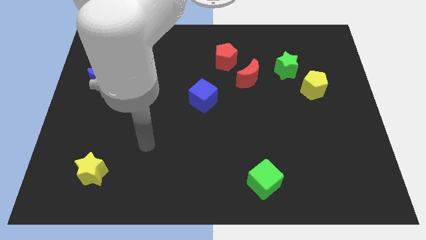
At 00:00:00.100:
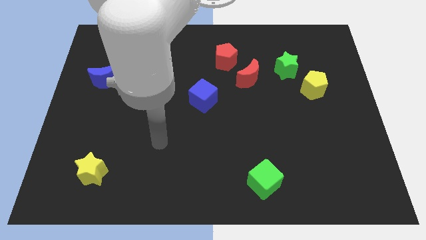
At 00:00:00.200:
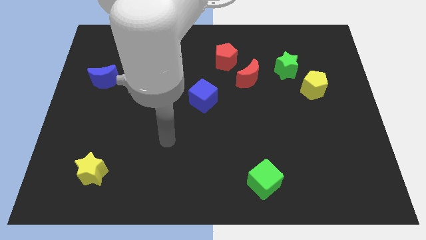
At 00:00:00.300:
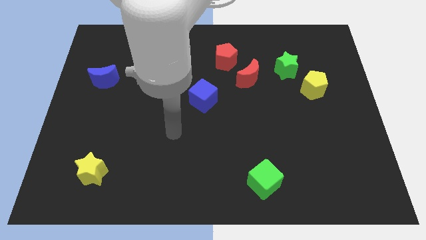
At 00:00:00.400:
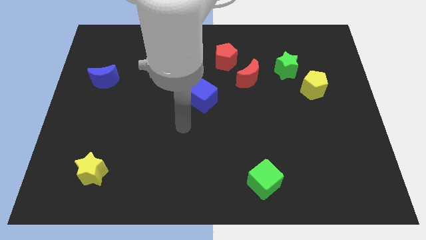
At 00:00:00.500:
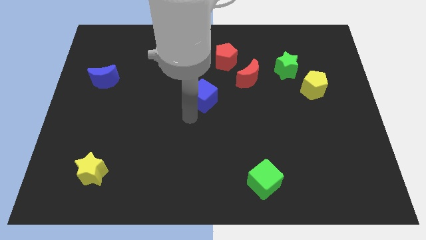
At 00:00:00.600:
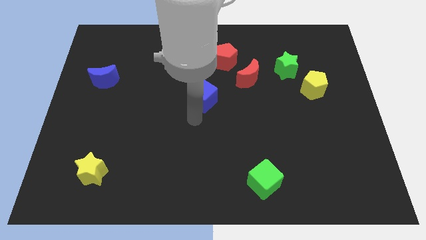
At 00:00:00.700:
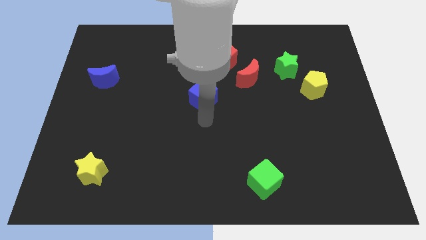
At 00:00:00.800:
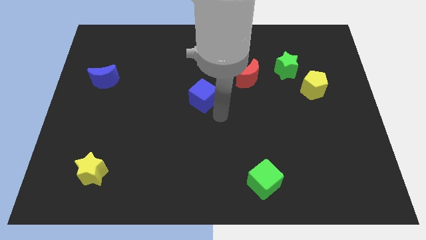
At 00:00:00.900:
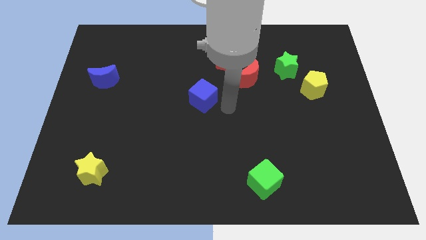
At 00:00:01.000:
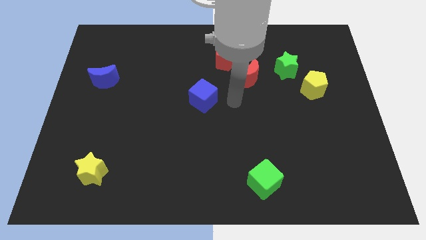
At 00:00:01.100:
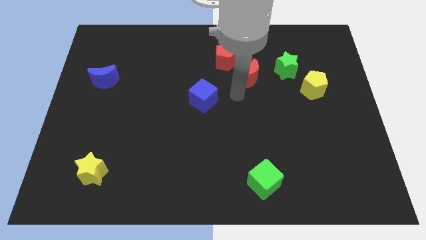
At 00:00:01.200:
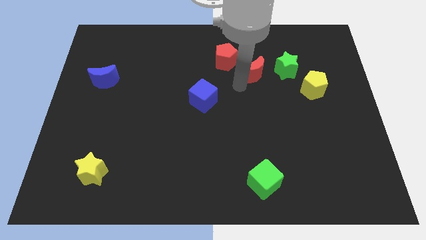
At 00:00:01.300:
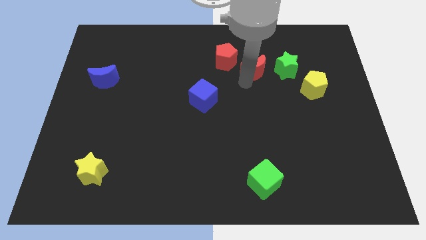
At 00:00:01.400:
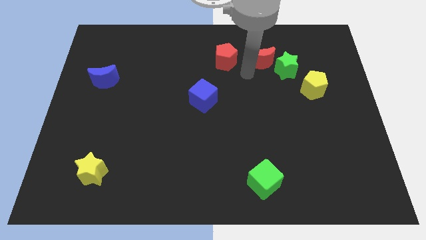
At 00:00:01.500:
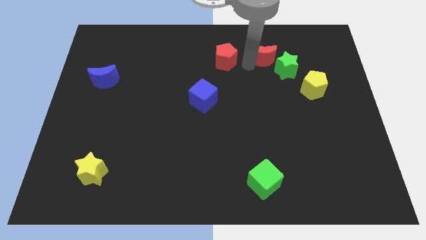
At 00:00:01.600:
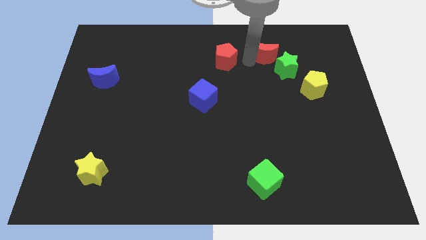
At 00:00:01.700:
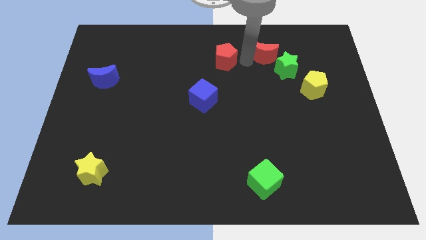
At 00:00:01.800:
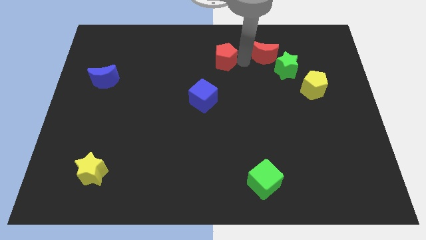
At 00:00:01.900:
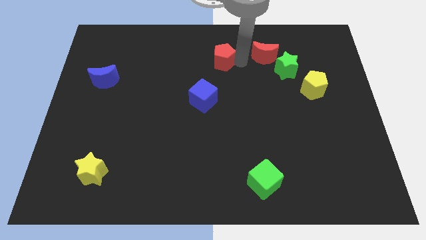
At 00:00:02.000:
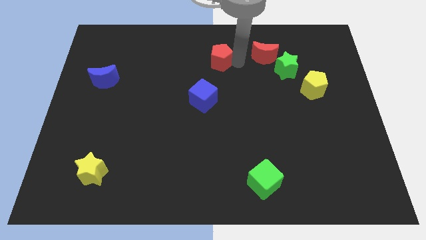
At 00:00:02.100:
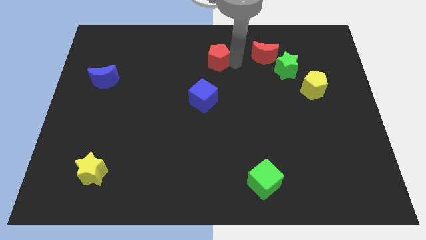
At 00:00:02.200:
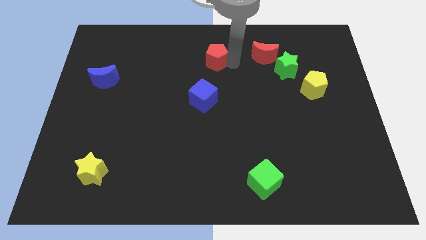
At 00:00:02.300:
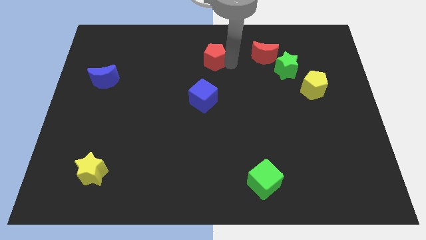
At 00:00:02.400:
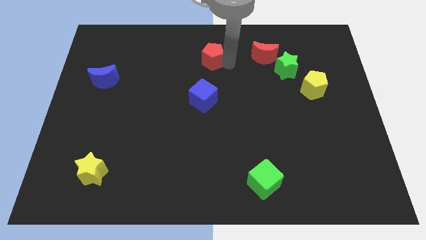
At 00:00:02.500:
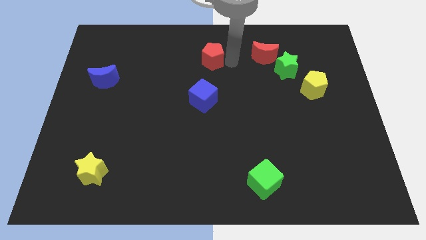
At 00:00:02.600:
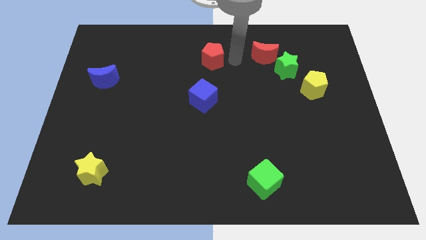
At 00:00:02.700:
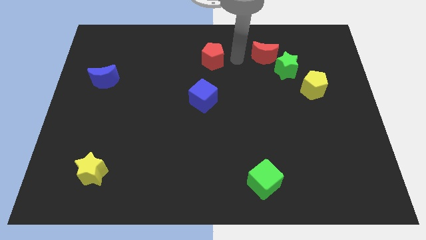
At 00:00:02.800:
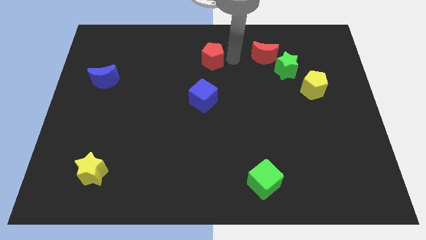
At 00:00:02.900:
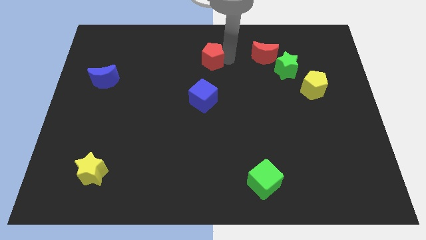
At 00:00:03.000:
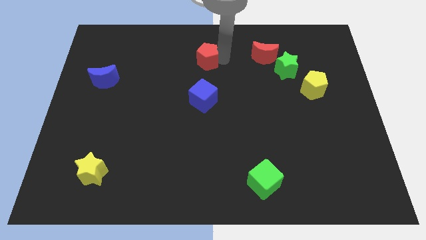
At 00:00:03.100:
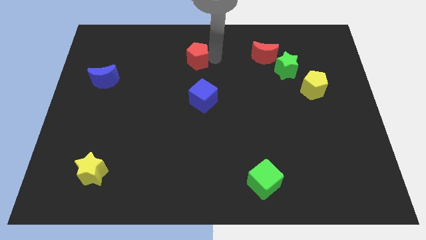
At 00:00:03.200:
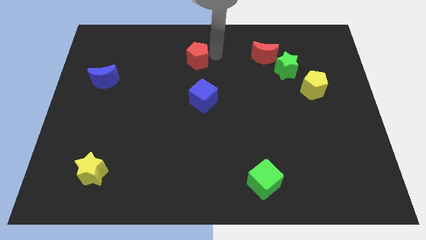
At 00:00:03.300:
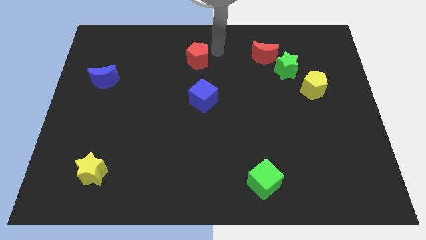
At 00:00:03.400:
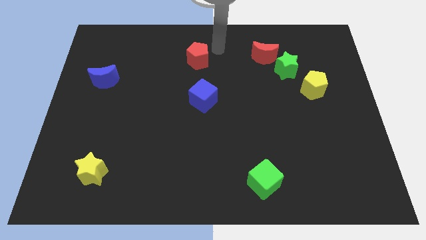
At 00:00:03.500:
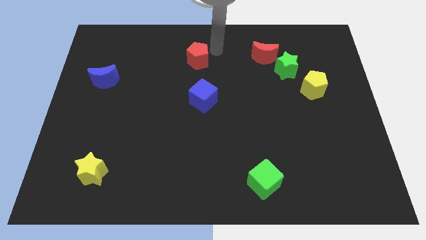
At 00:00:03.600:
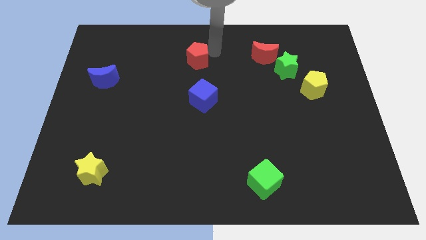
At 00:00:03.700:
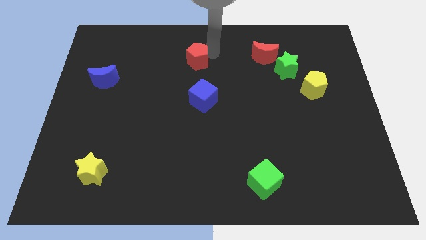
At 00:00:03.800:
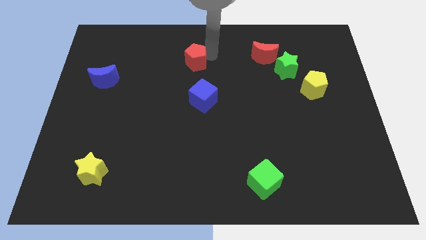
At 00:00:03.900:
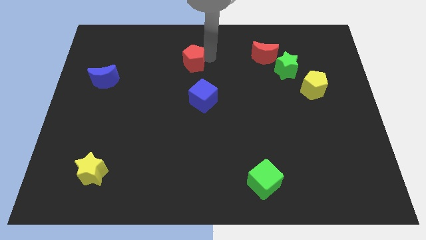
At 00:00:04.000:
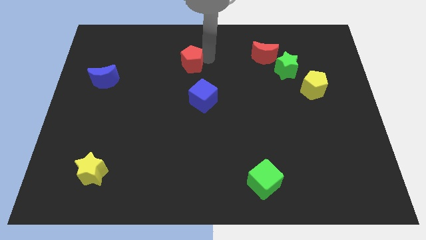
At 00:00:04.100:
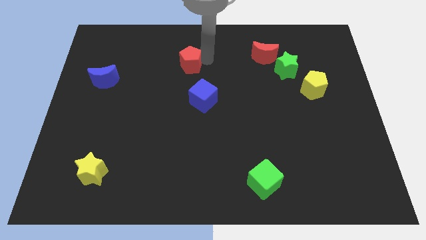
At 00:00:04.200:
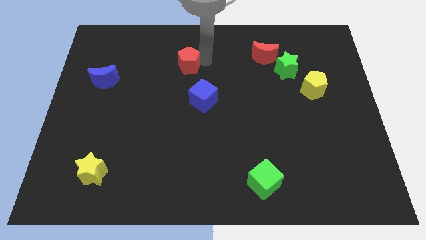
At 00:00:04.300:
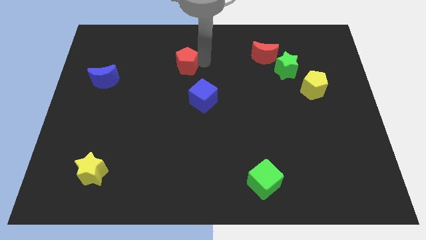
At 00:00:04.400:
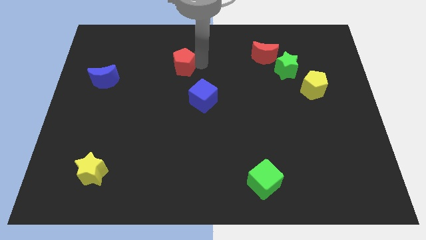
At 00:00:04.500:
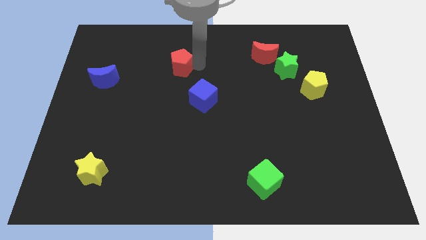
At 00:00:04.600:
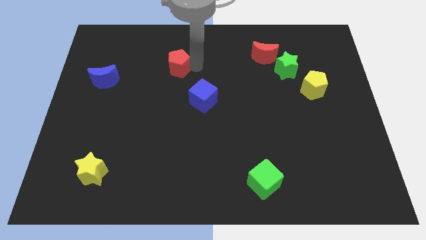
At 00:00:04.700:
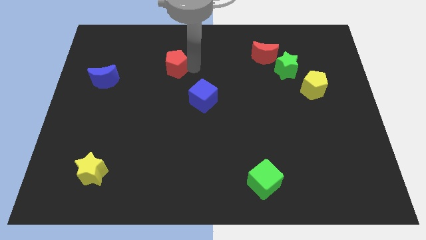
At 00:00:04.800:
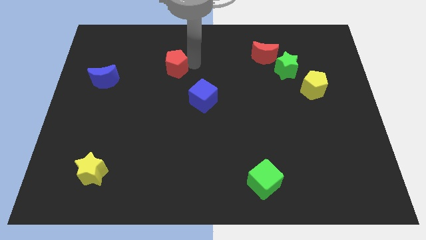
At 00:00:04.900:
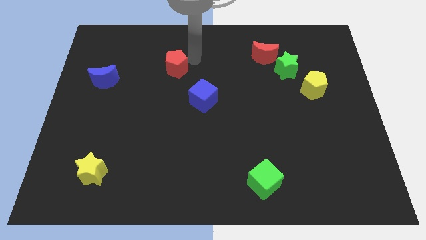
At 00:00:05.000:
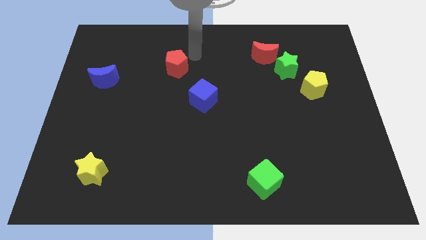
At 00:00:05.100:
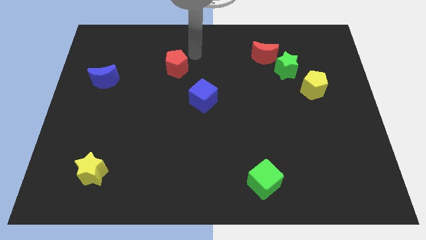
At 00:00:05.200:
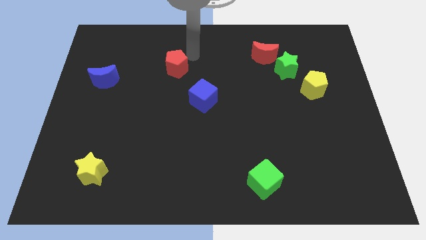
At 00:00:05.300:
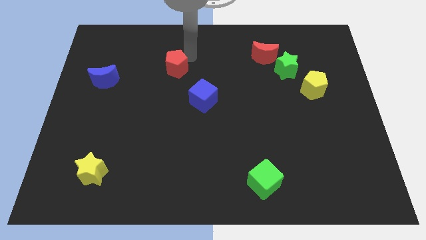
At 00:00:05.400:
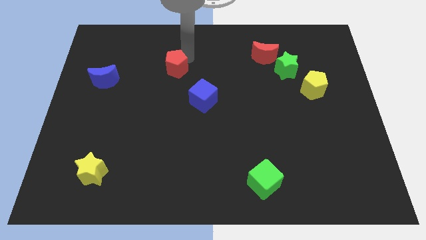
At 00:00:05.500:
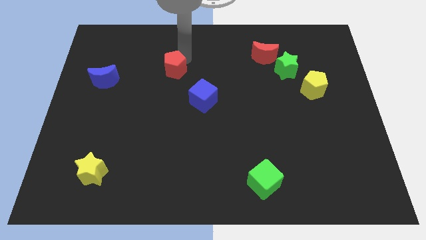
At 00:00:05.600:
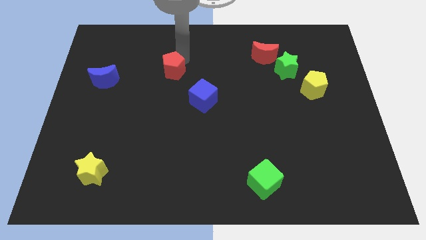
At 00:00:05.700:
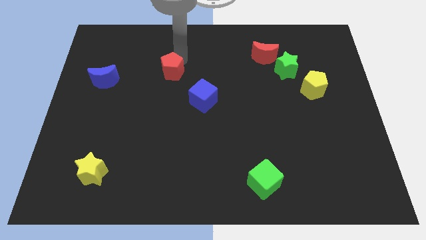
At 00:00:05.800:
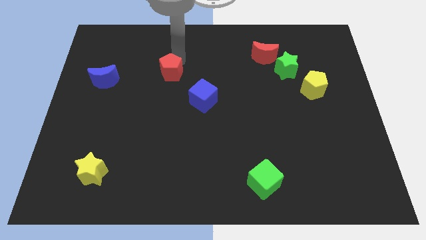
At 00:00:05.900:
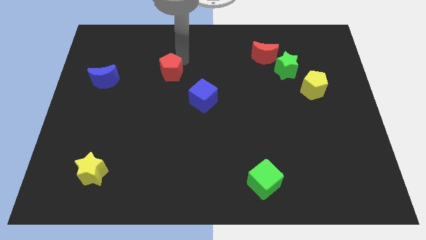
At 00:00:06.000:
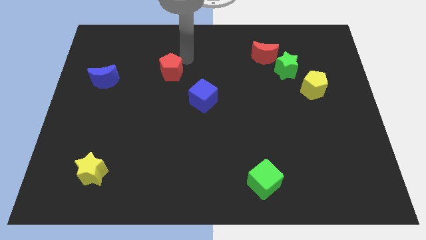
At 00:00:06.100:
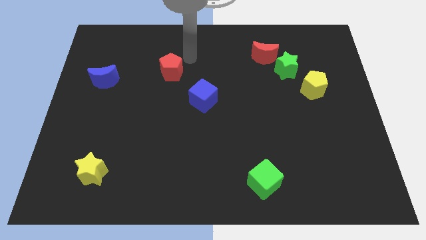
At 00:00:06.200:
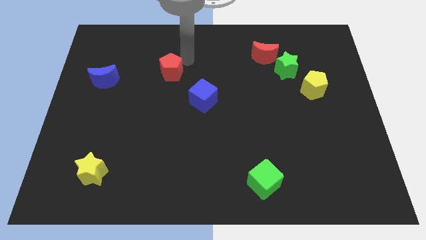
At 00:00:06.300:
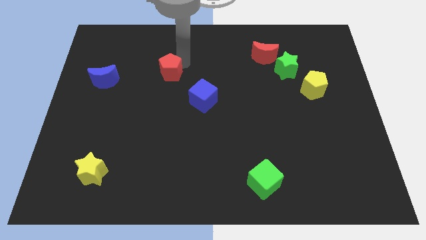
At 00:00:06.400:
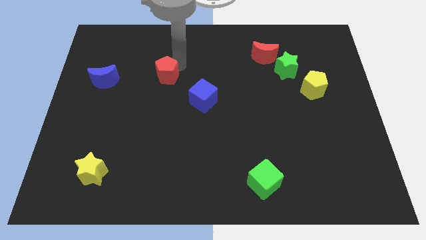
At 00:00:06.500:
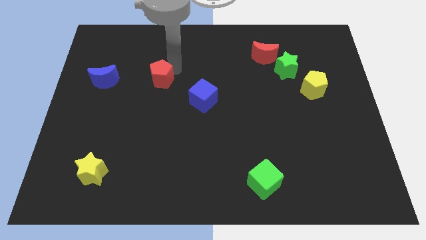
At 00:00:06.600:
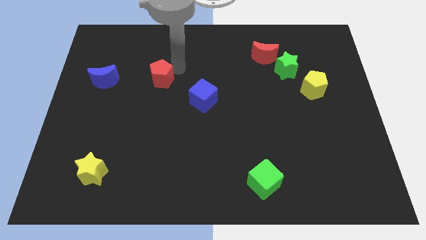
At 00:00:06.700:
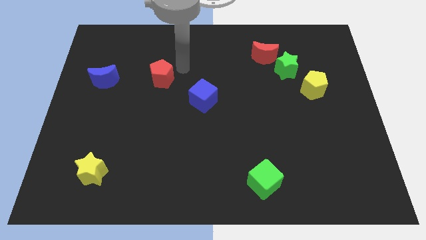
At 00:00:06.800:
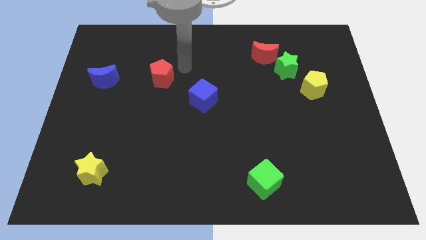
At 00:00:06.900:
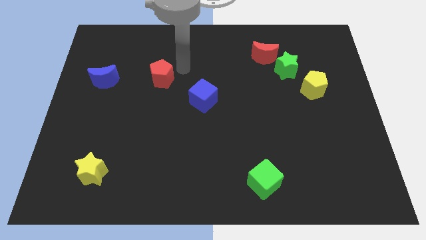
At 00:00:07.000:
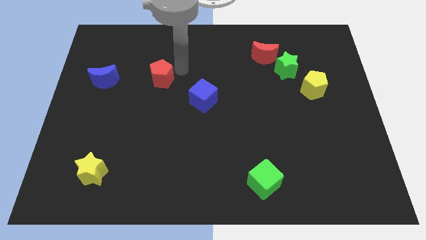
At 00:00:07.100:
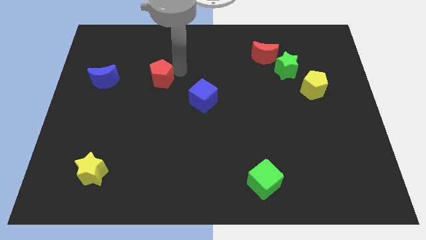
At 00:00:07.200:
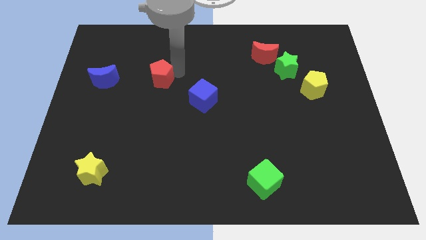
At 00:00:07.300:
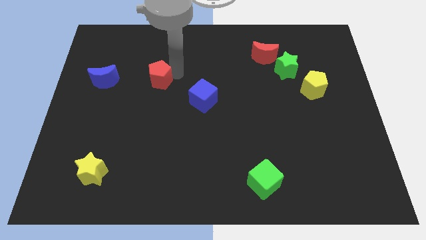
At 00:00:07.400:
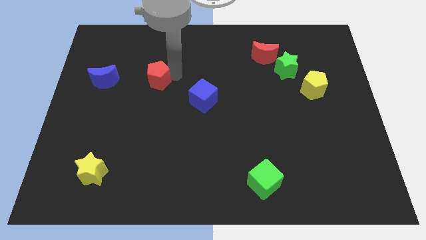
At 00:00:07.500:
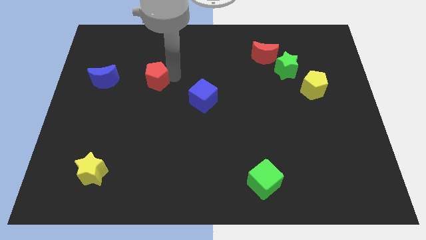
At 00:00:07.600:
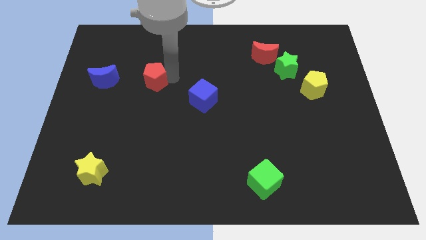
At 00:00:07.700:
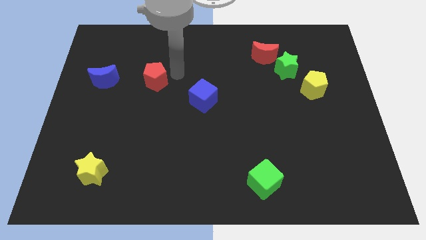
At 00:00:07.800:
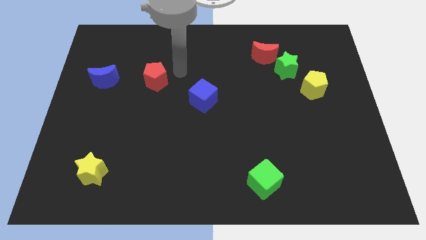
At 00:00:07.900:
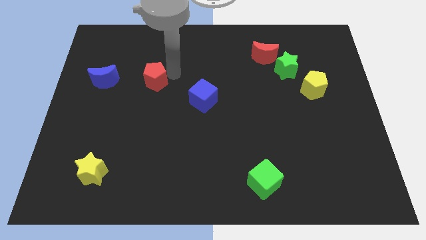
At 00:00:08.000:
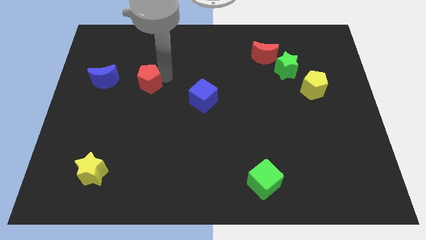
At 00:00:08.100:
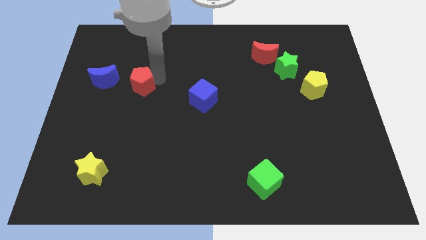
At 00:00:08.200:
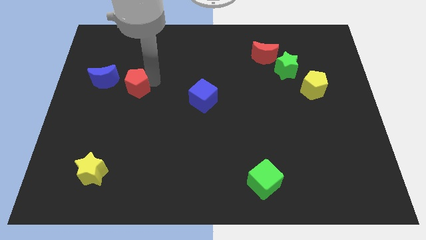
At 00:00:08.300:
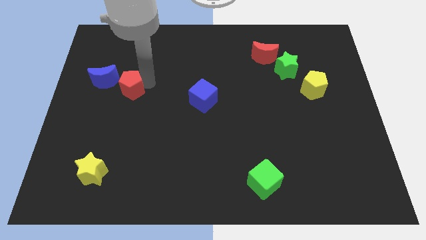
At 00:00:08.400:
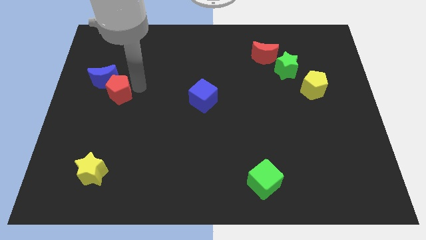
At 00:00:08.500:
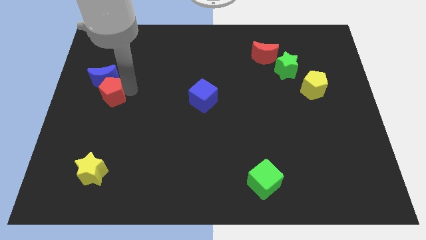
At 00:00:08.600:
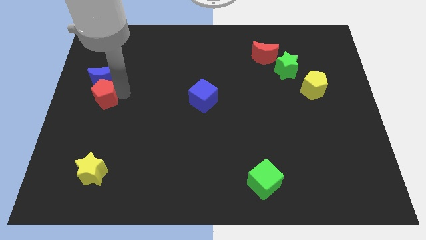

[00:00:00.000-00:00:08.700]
put the red pentagon to the center left
